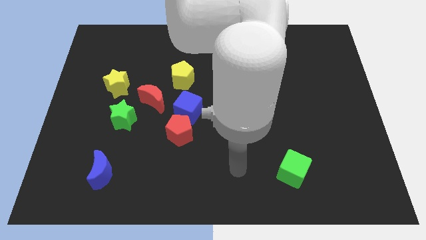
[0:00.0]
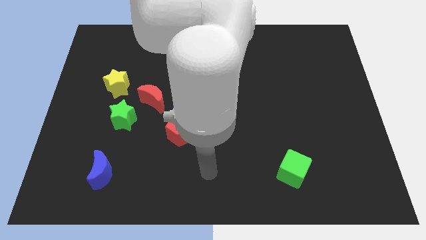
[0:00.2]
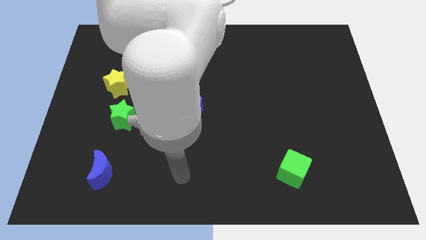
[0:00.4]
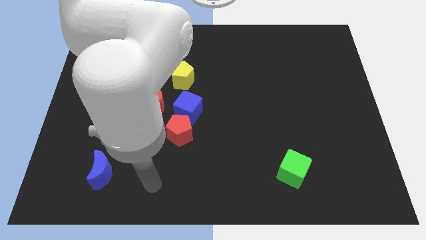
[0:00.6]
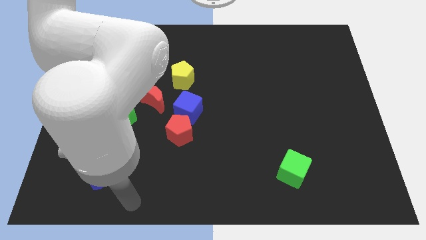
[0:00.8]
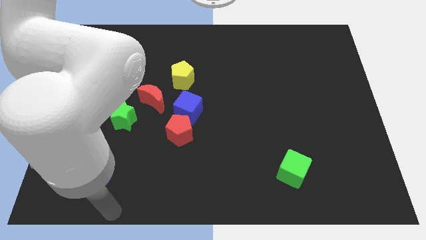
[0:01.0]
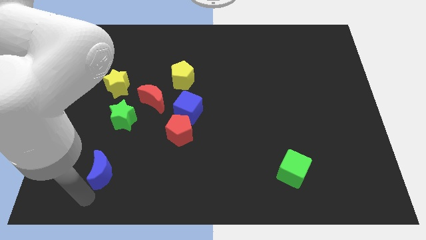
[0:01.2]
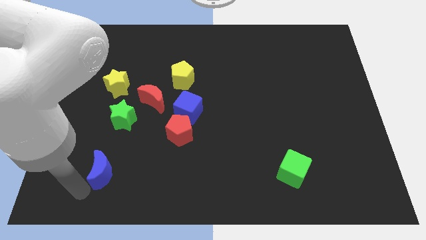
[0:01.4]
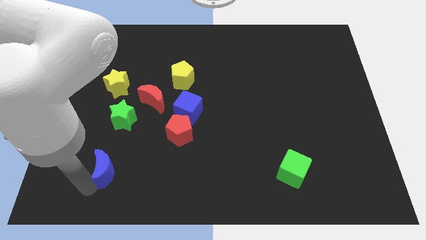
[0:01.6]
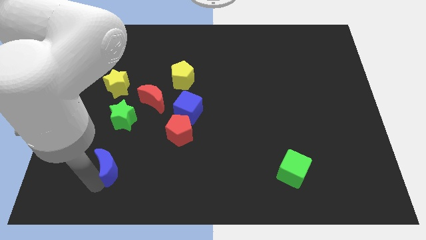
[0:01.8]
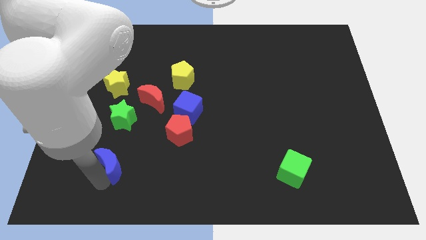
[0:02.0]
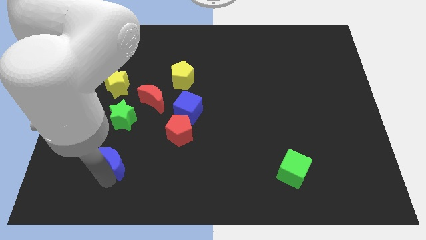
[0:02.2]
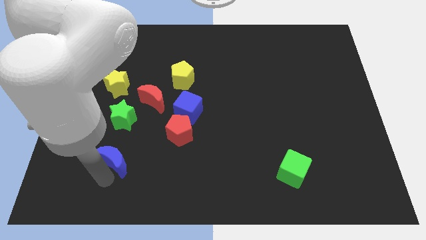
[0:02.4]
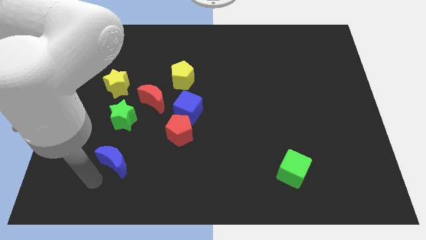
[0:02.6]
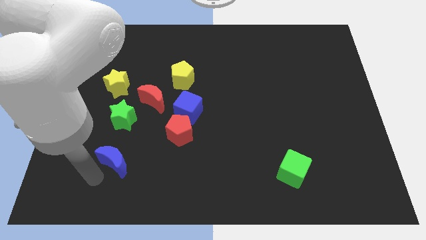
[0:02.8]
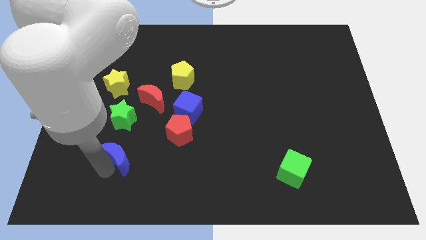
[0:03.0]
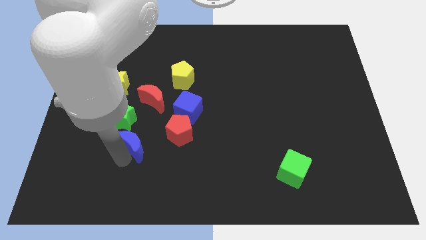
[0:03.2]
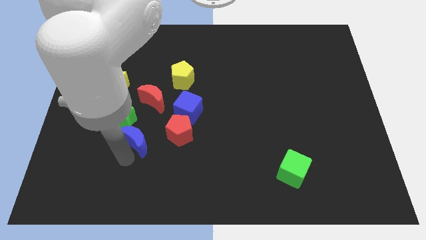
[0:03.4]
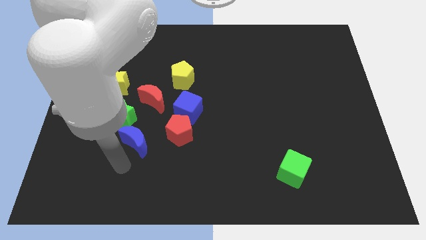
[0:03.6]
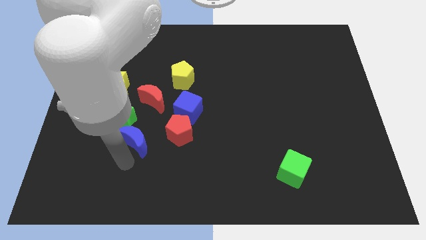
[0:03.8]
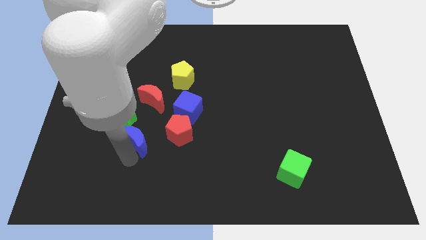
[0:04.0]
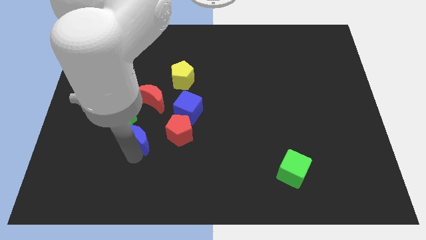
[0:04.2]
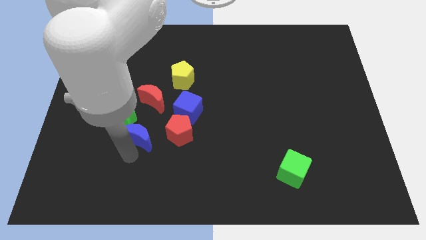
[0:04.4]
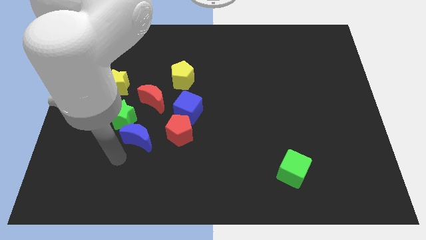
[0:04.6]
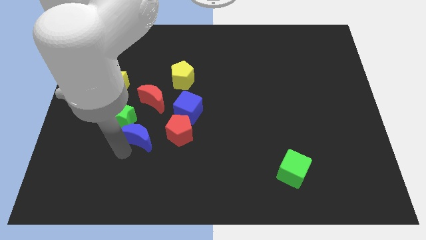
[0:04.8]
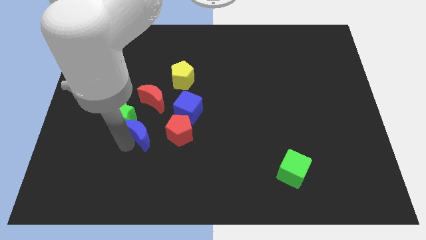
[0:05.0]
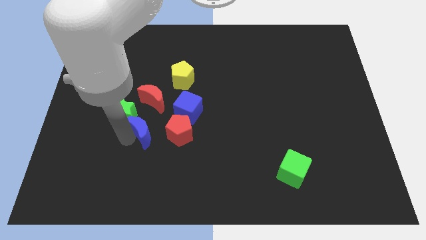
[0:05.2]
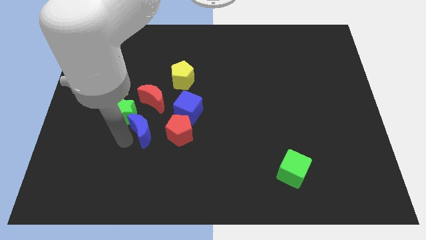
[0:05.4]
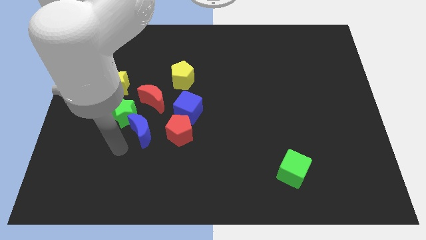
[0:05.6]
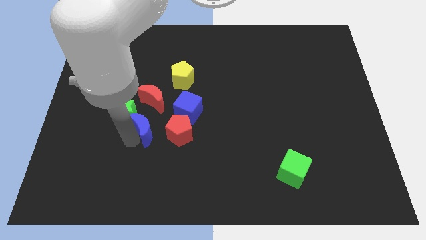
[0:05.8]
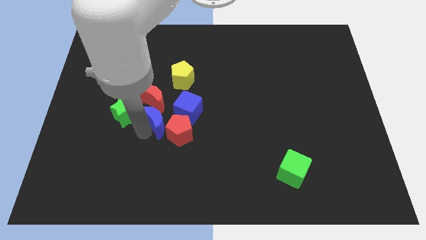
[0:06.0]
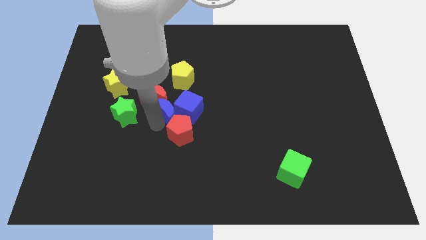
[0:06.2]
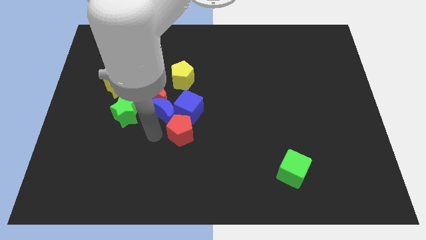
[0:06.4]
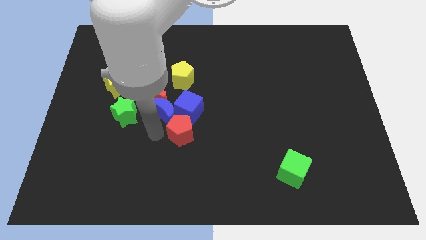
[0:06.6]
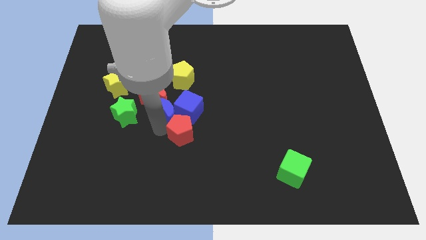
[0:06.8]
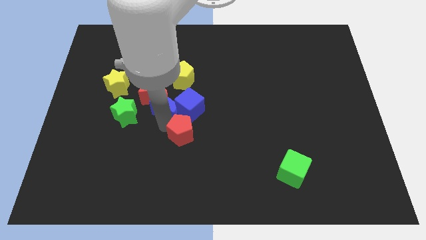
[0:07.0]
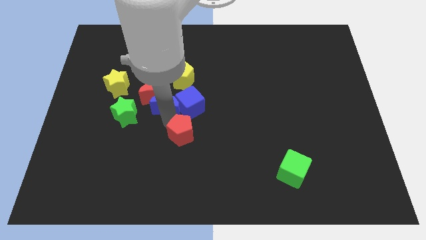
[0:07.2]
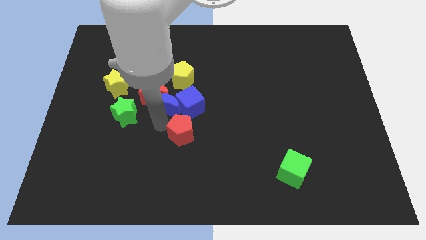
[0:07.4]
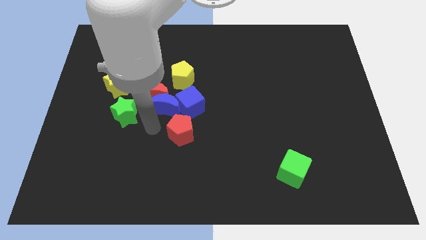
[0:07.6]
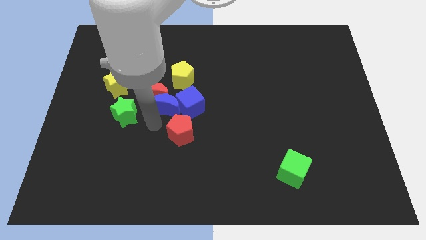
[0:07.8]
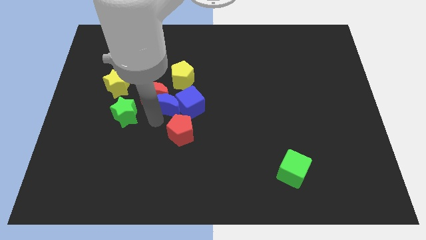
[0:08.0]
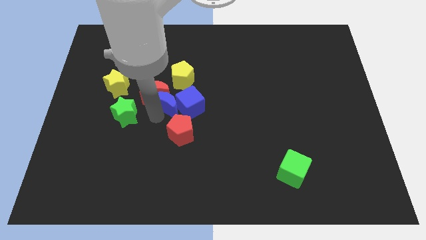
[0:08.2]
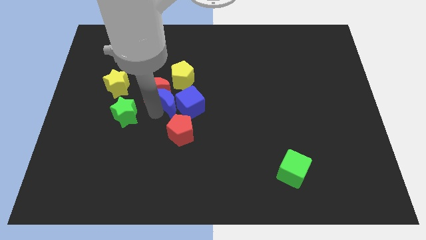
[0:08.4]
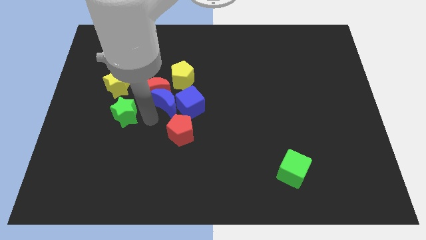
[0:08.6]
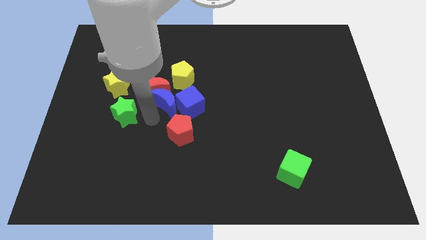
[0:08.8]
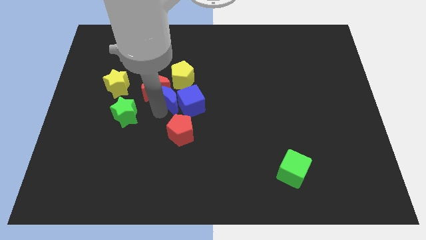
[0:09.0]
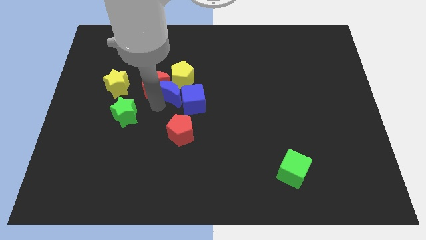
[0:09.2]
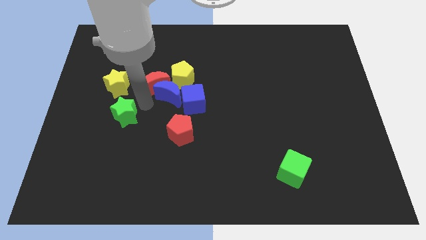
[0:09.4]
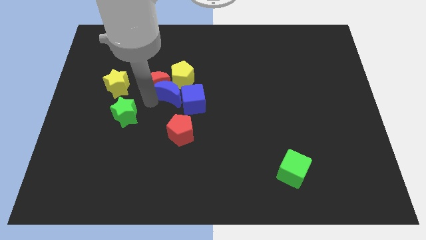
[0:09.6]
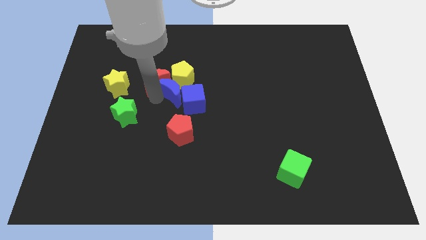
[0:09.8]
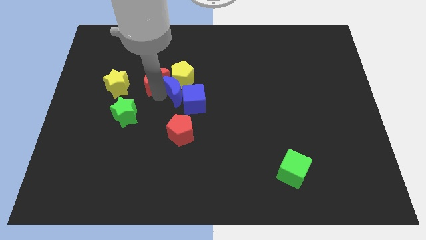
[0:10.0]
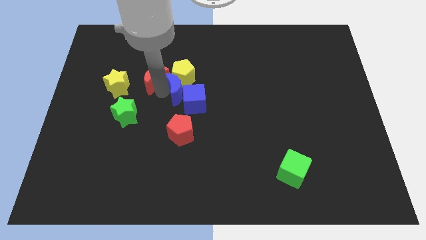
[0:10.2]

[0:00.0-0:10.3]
put the blue moon to the top of the blue cube

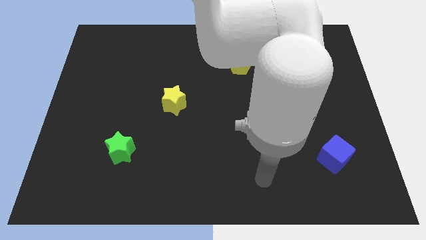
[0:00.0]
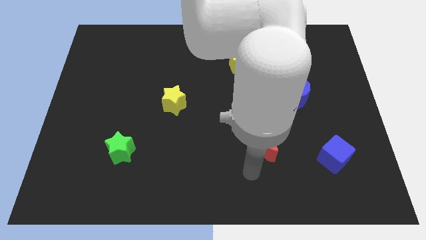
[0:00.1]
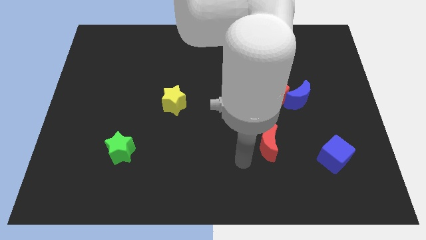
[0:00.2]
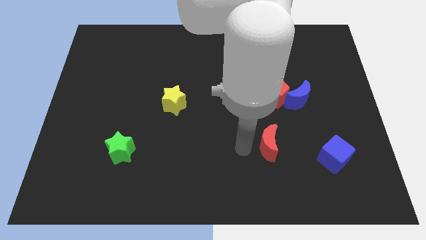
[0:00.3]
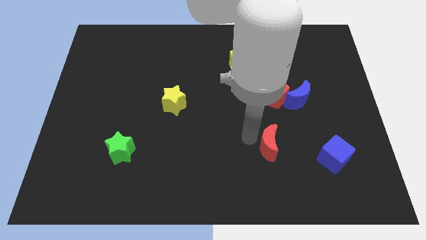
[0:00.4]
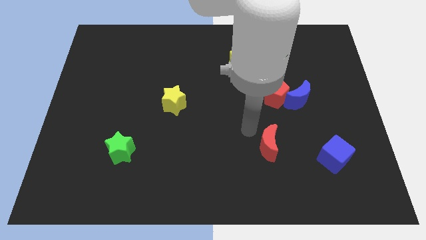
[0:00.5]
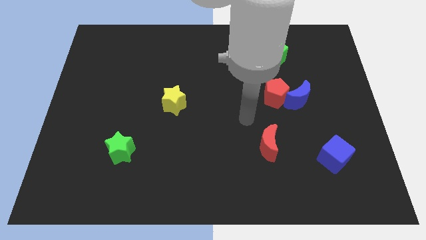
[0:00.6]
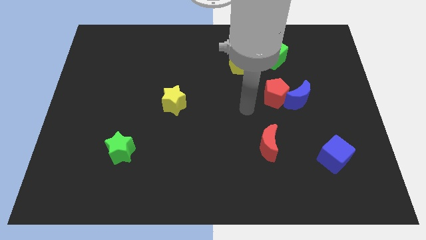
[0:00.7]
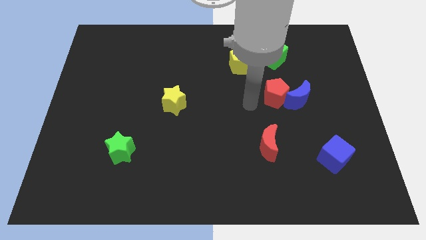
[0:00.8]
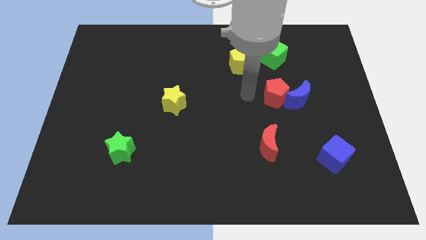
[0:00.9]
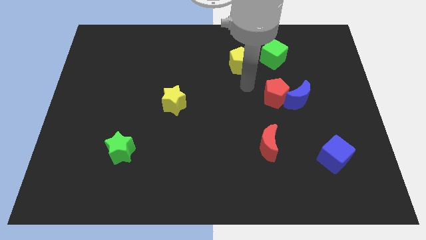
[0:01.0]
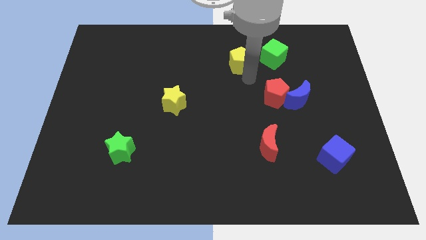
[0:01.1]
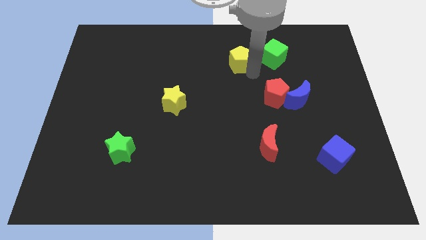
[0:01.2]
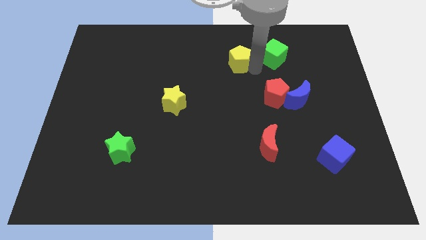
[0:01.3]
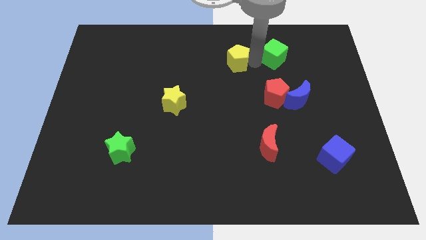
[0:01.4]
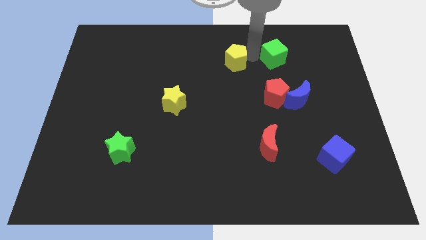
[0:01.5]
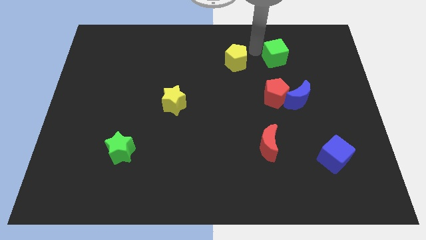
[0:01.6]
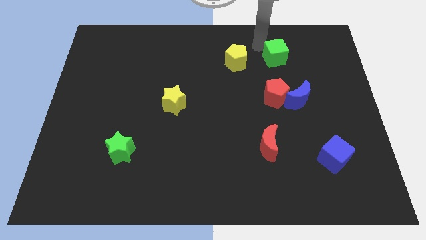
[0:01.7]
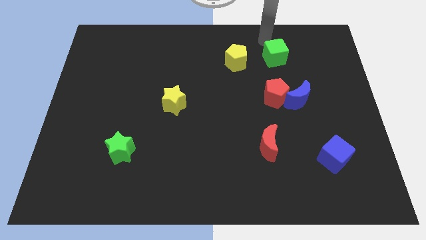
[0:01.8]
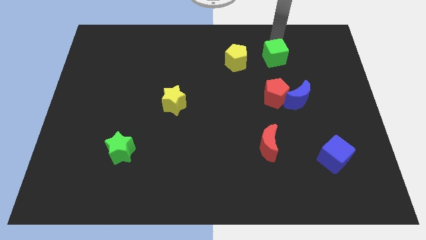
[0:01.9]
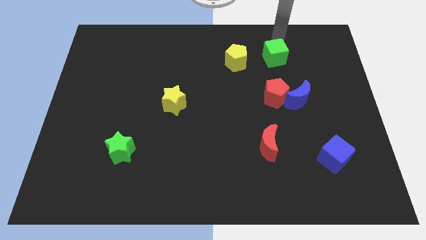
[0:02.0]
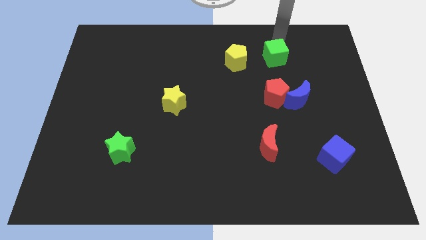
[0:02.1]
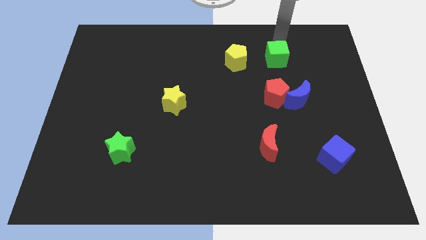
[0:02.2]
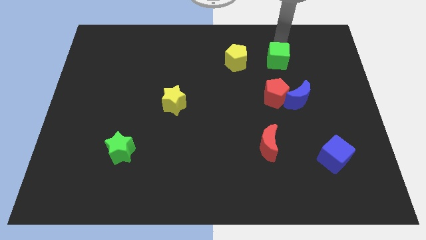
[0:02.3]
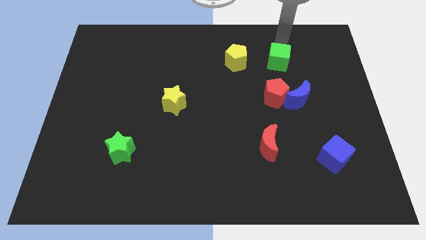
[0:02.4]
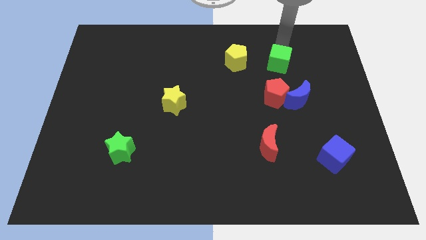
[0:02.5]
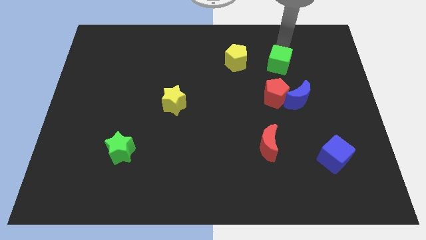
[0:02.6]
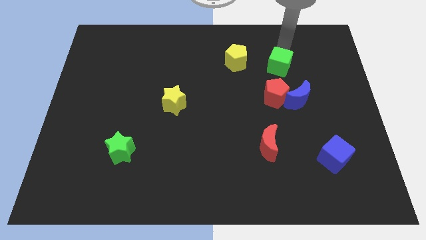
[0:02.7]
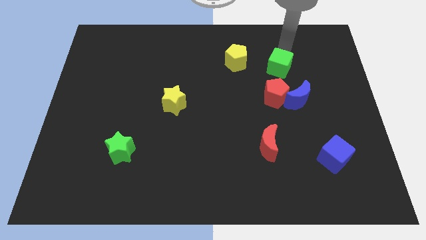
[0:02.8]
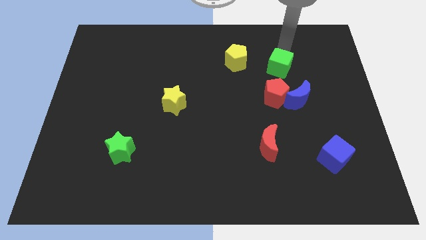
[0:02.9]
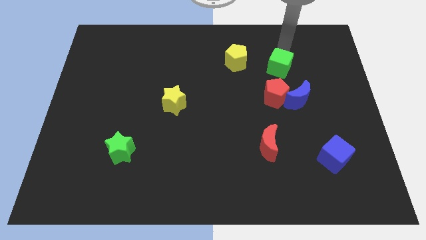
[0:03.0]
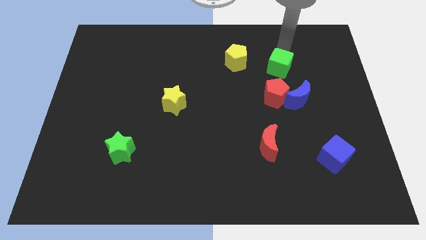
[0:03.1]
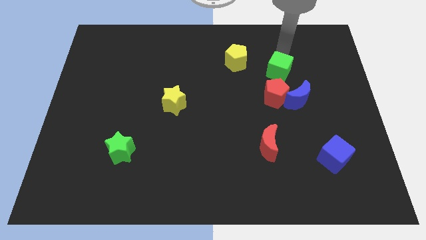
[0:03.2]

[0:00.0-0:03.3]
push the green cube to the top left of the blue moon

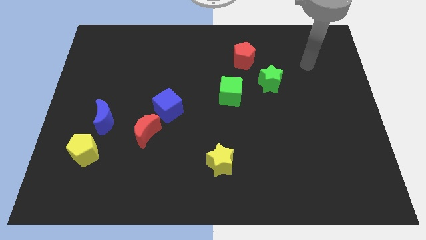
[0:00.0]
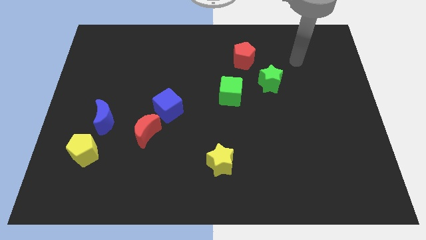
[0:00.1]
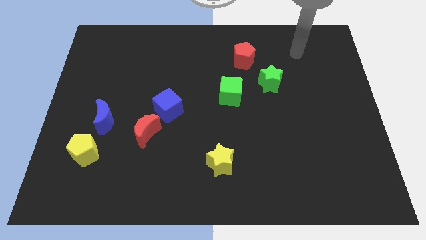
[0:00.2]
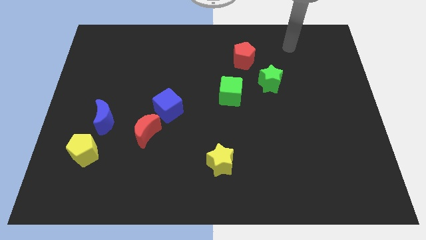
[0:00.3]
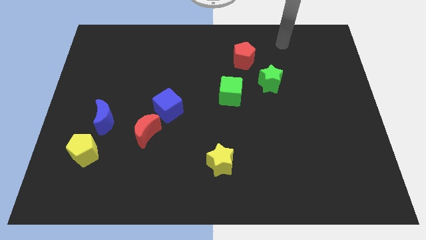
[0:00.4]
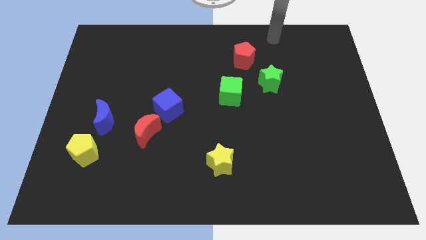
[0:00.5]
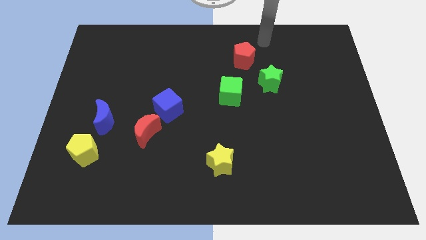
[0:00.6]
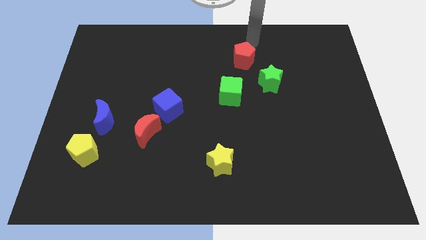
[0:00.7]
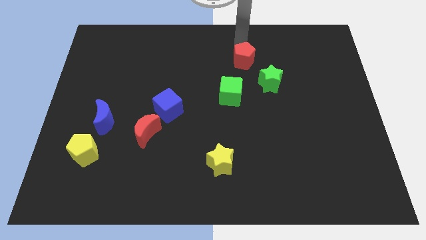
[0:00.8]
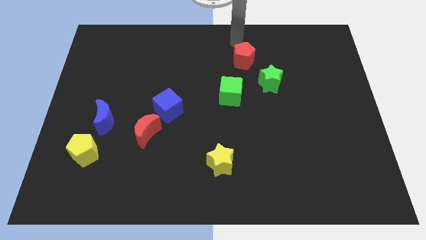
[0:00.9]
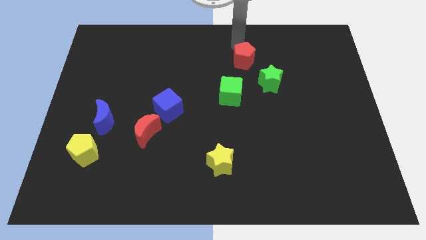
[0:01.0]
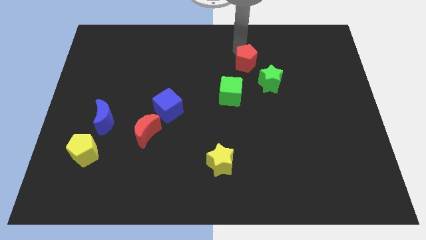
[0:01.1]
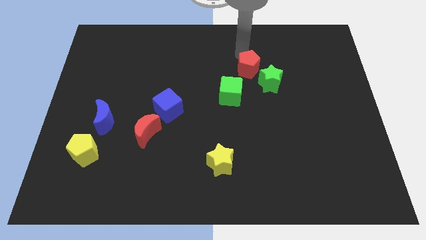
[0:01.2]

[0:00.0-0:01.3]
push the red pentagon diagonally up and to the right of the green cube
